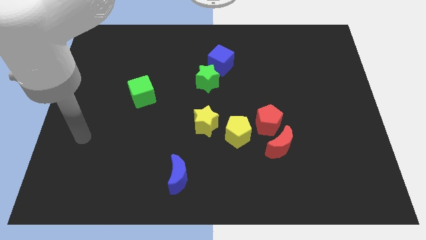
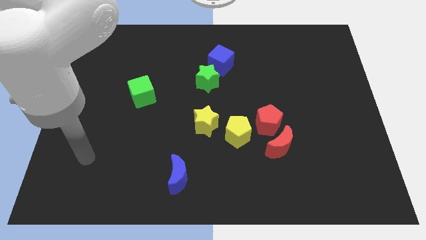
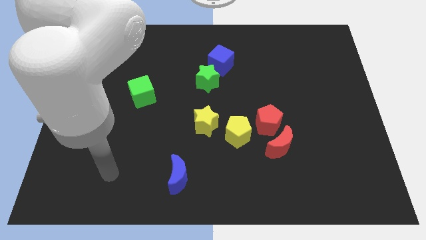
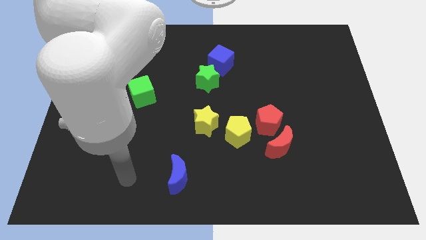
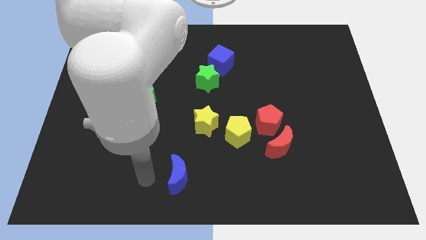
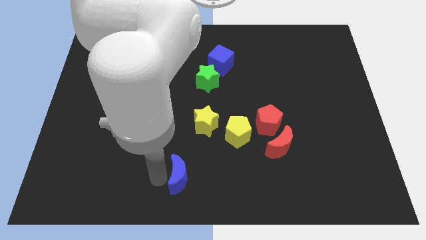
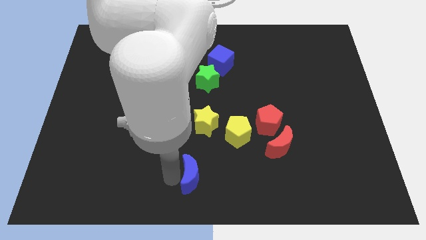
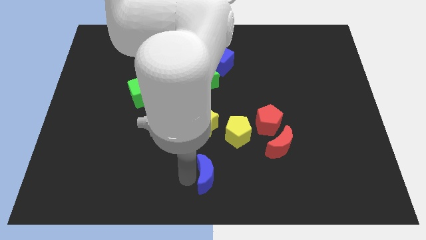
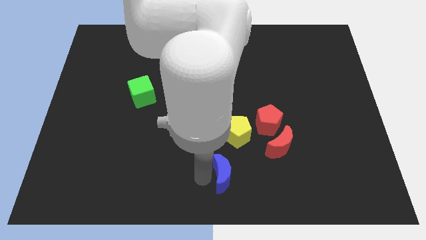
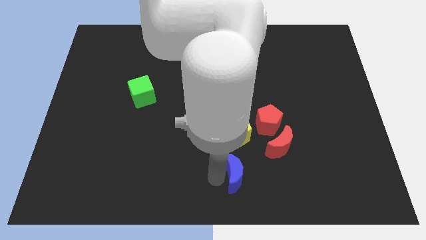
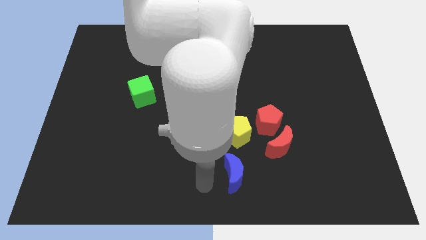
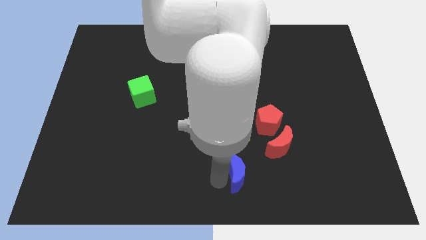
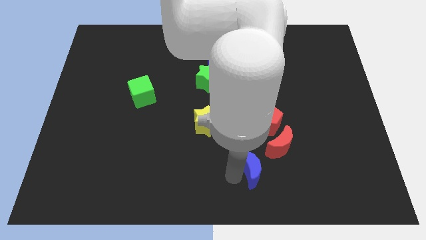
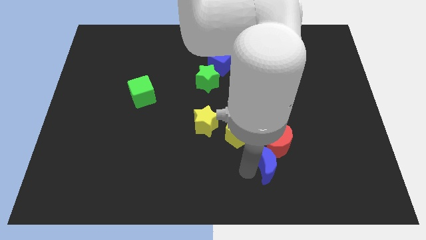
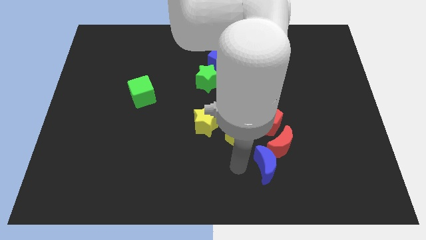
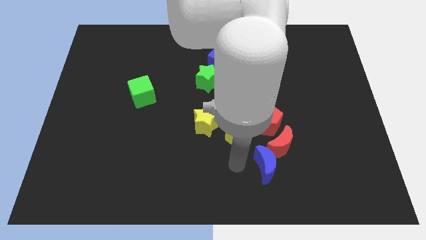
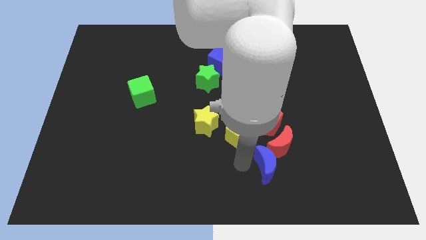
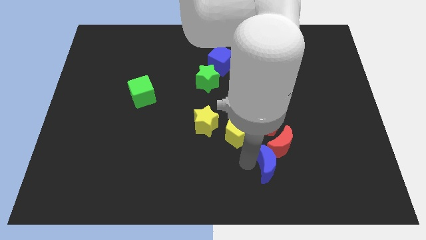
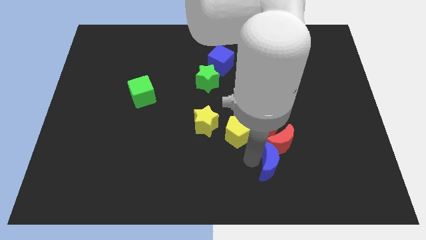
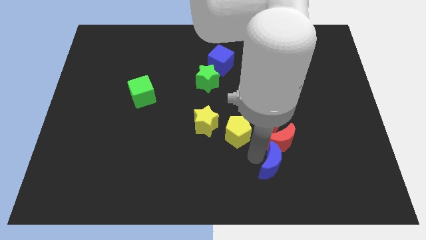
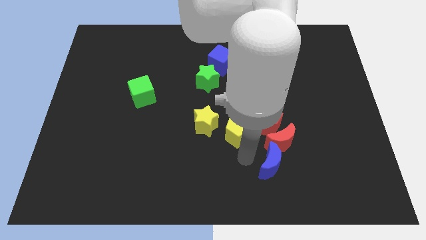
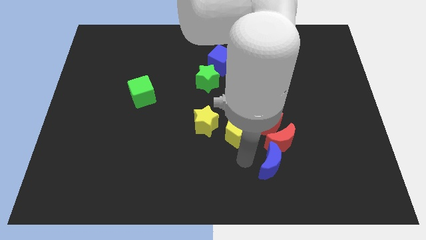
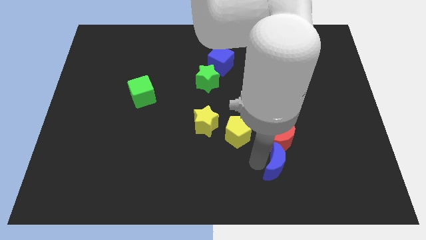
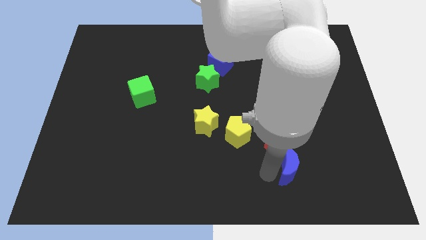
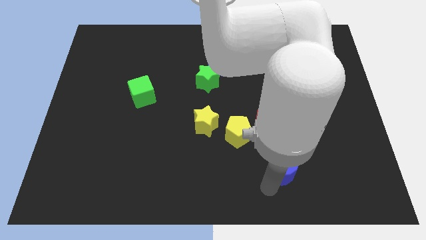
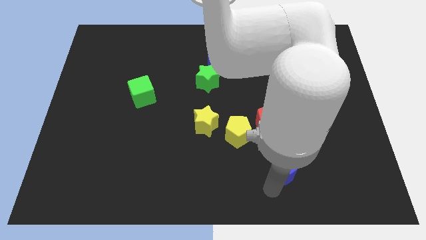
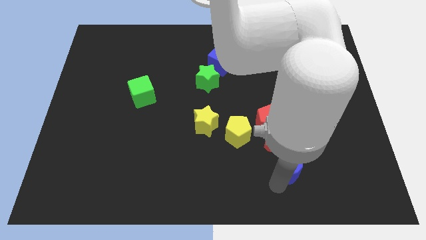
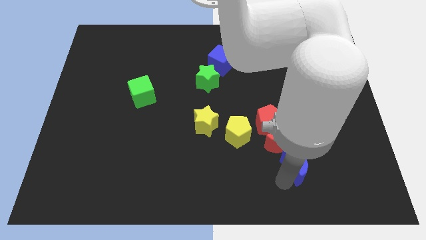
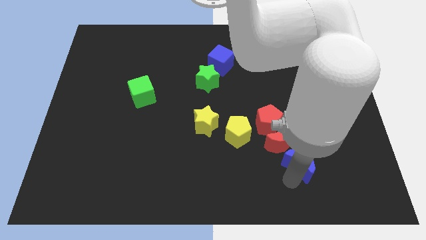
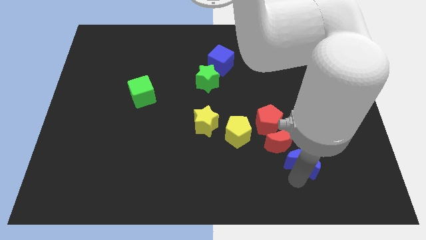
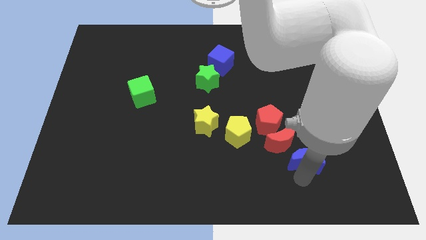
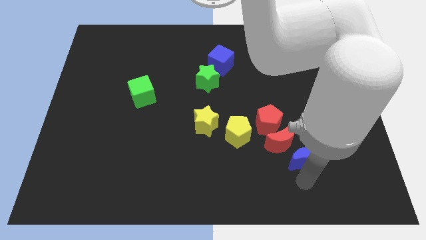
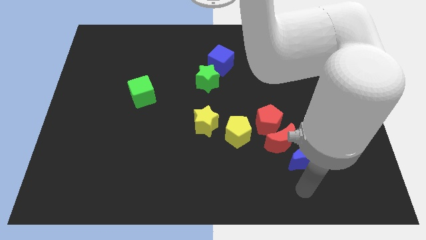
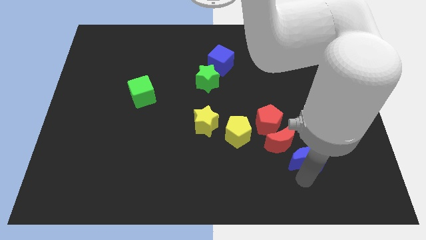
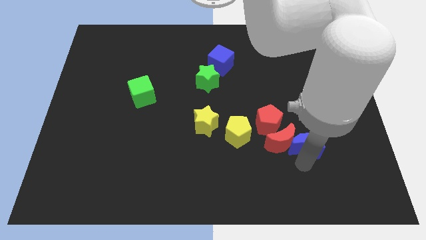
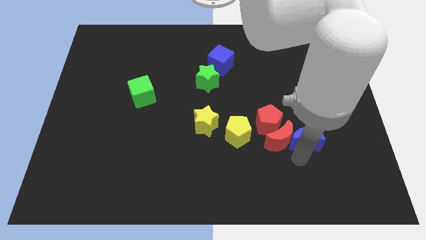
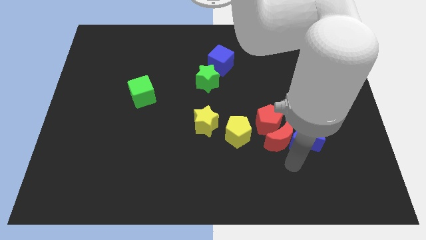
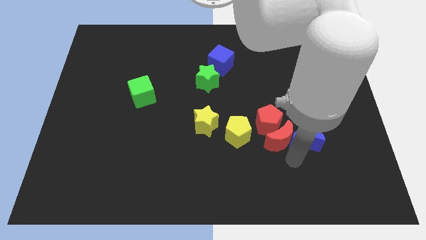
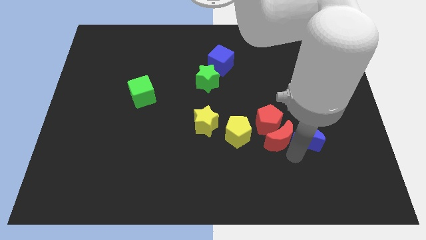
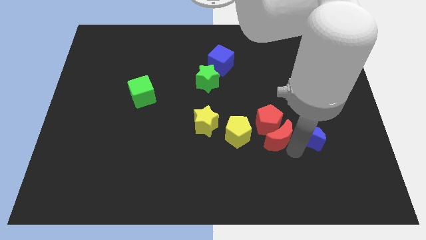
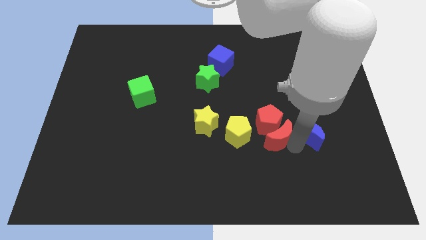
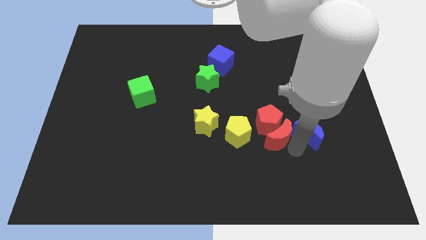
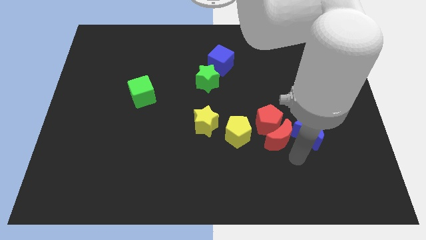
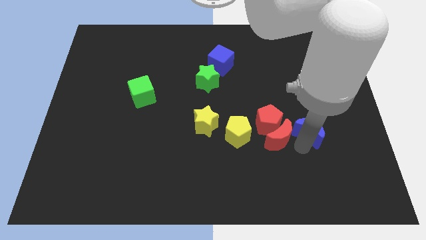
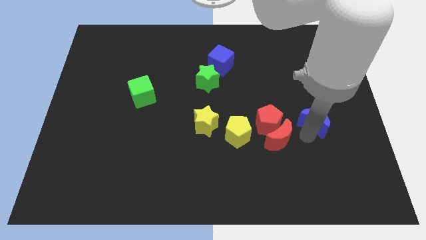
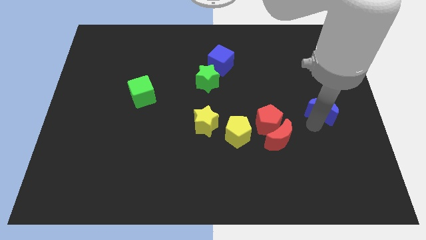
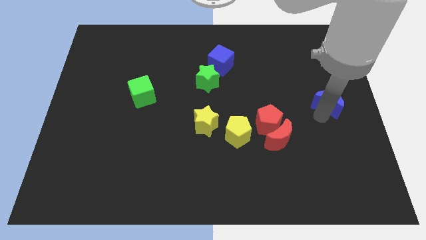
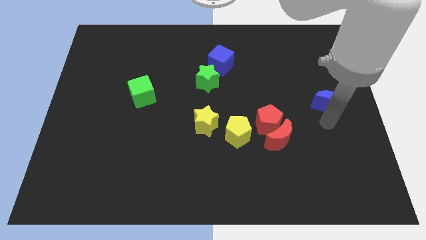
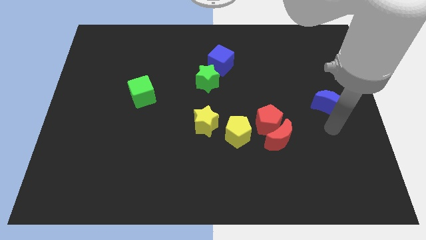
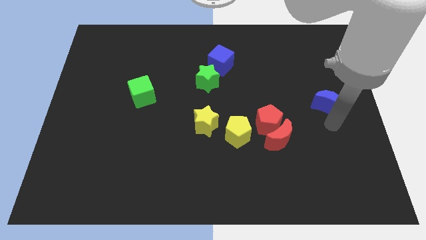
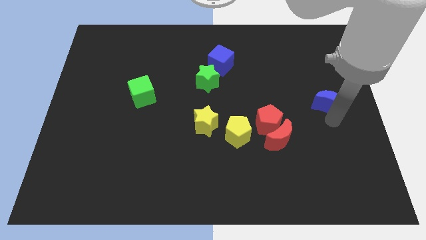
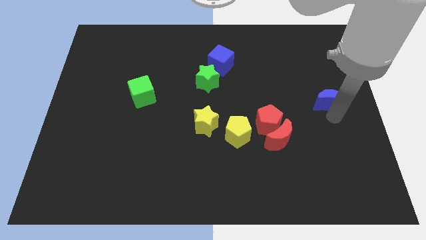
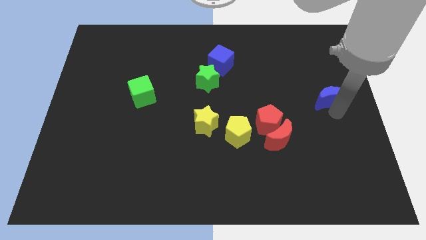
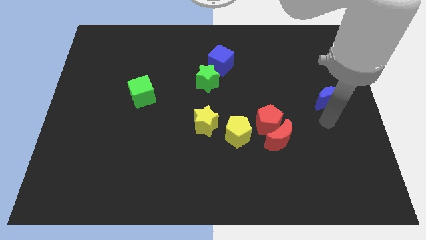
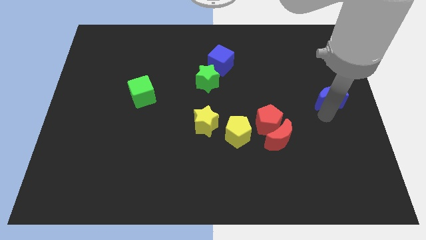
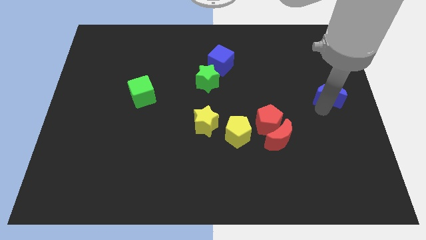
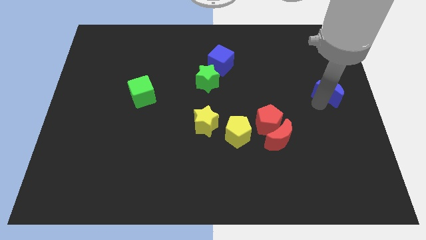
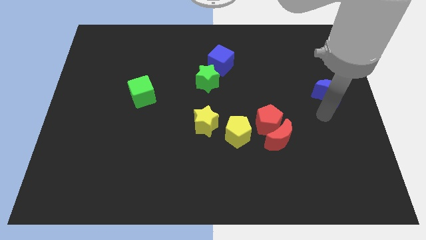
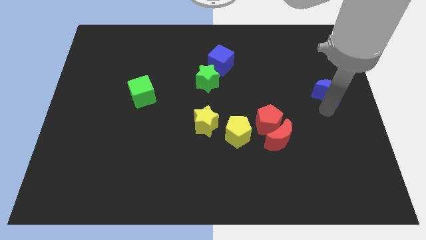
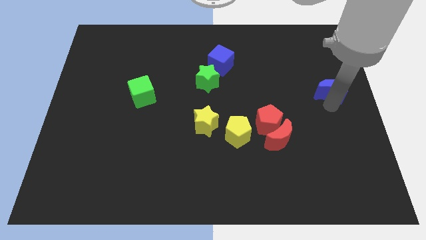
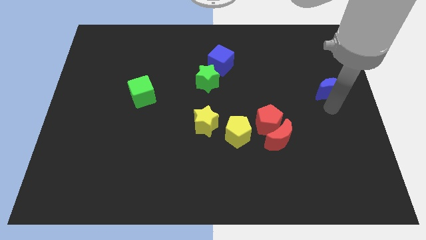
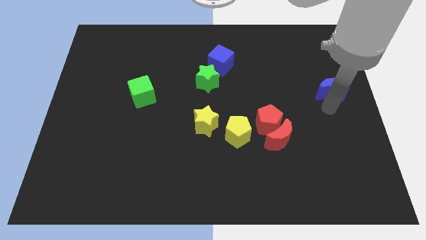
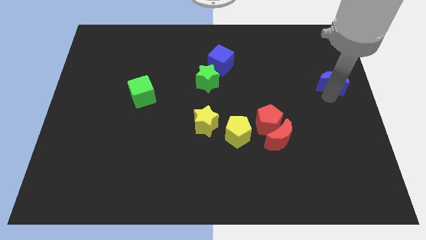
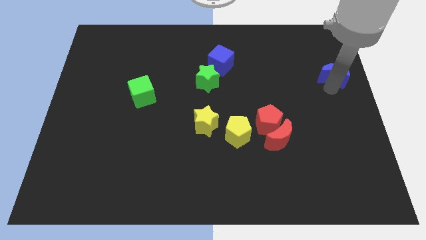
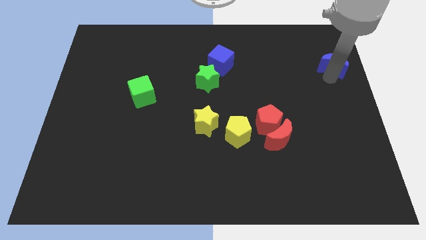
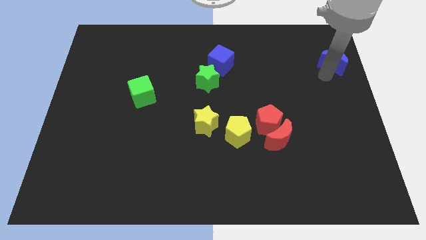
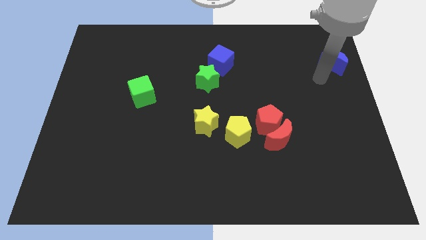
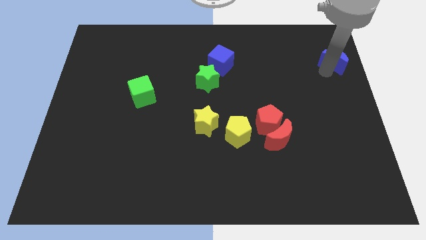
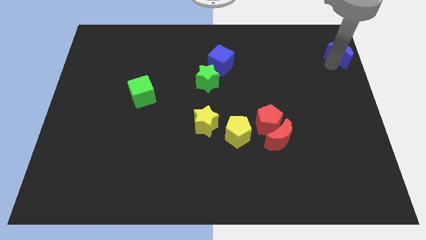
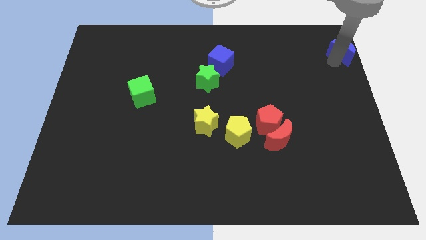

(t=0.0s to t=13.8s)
move the blue moon to the top right
